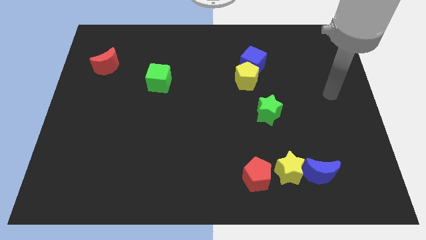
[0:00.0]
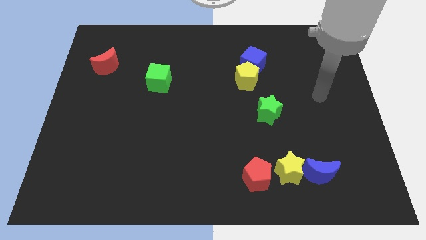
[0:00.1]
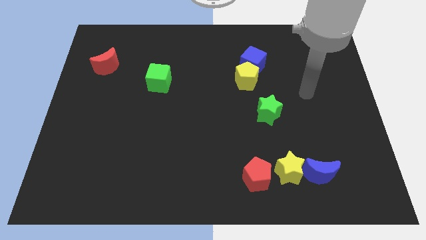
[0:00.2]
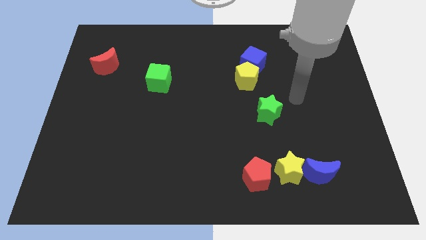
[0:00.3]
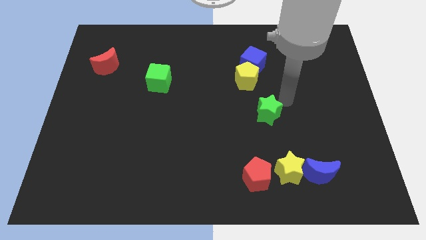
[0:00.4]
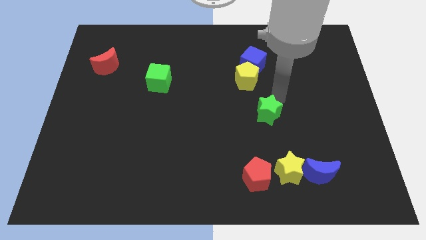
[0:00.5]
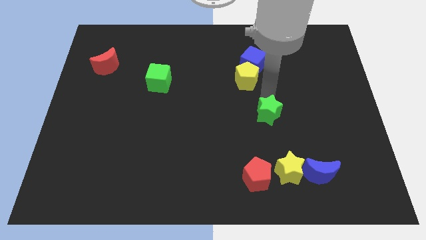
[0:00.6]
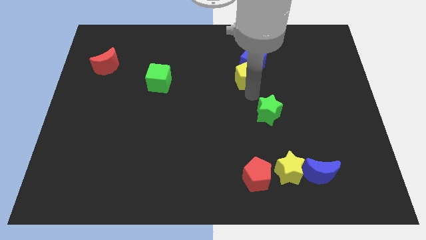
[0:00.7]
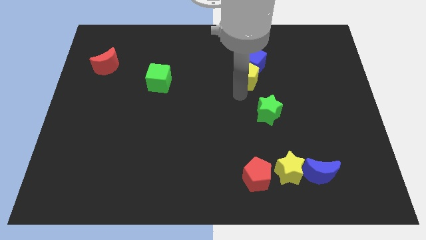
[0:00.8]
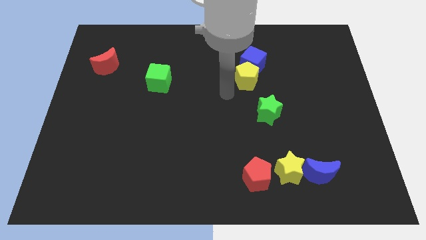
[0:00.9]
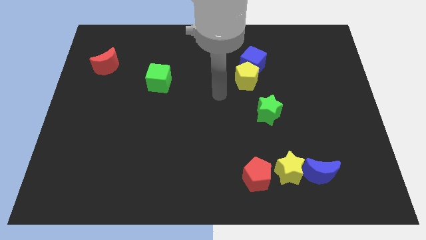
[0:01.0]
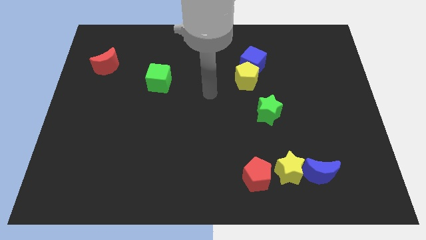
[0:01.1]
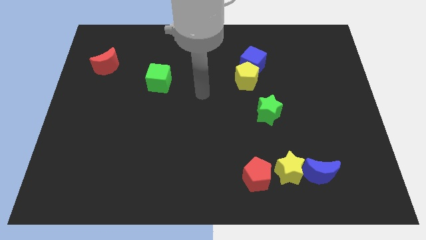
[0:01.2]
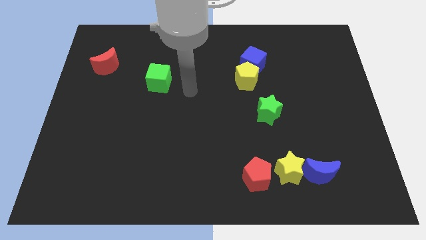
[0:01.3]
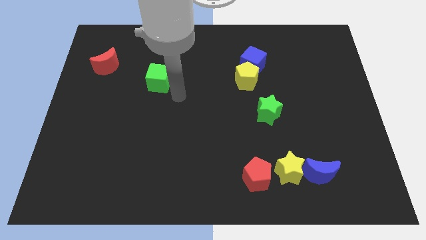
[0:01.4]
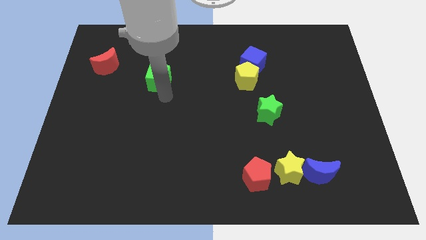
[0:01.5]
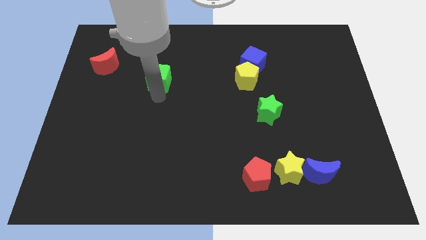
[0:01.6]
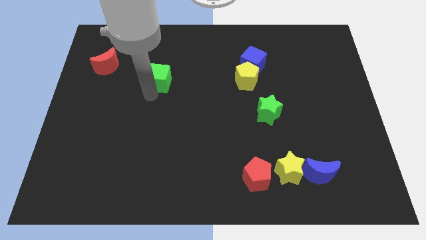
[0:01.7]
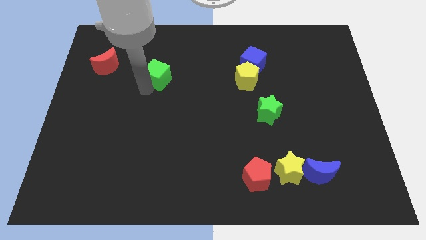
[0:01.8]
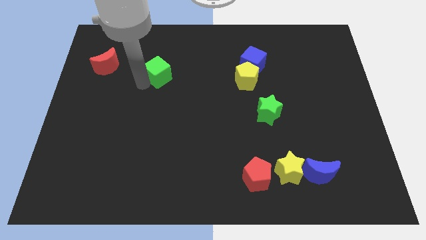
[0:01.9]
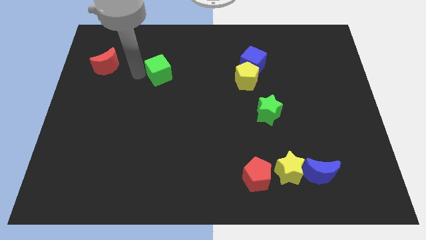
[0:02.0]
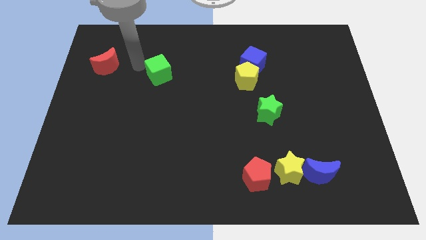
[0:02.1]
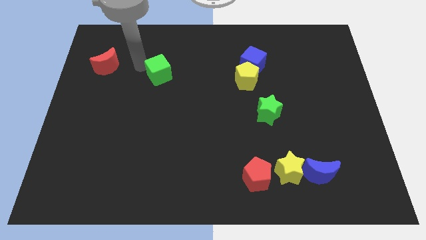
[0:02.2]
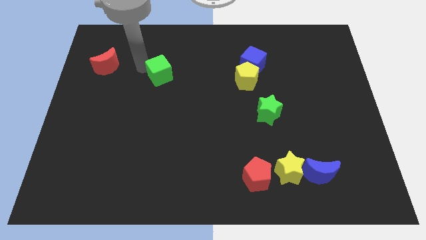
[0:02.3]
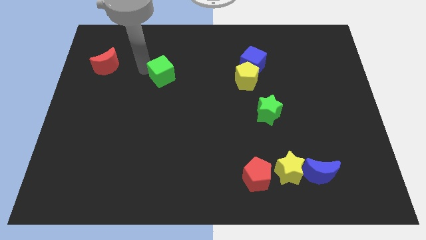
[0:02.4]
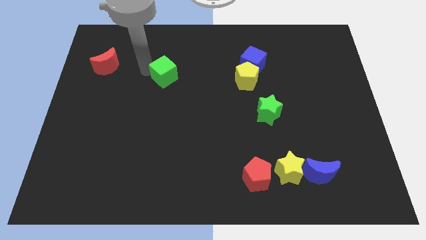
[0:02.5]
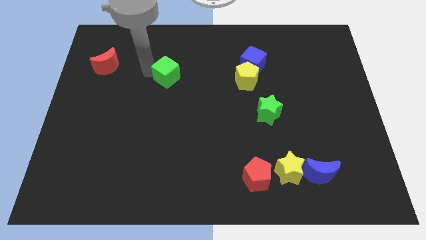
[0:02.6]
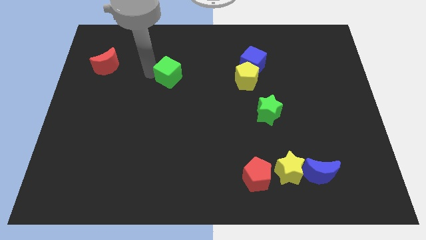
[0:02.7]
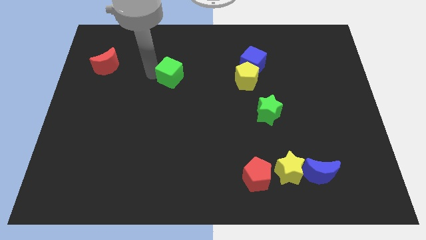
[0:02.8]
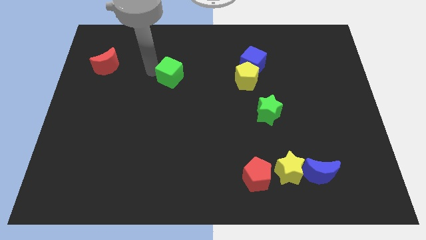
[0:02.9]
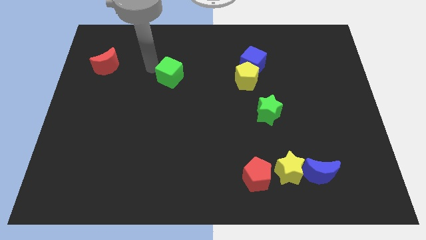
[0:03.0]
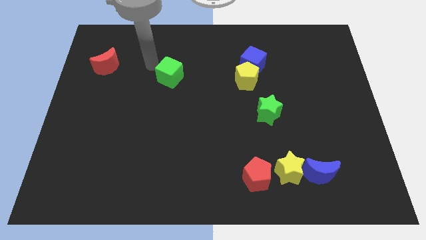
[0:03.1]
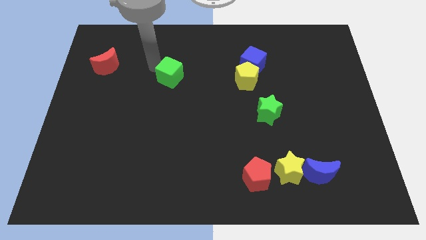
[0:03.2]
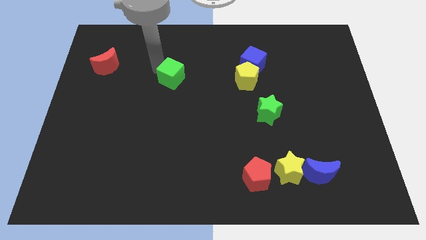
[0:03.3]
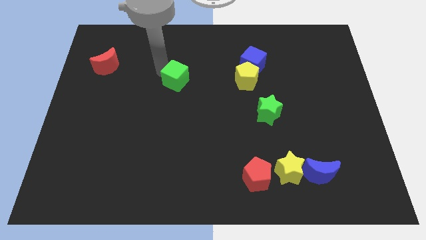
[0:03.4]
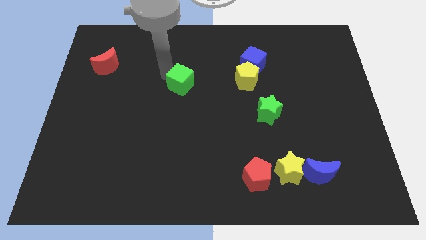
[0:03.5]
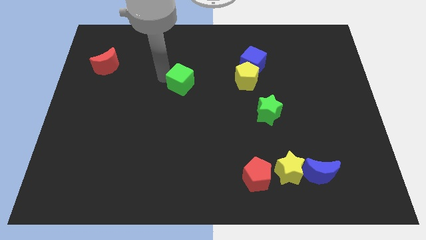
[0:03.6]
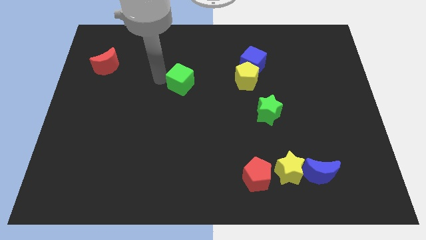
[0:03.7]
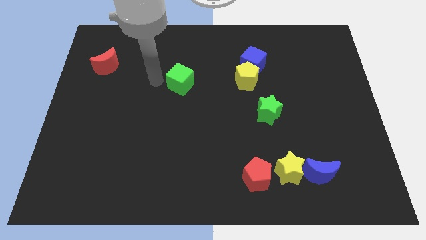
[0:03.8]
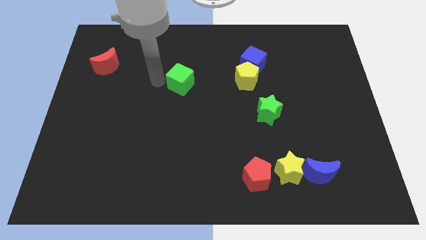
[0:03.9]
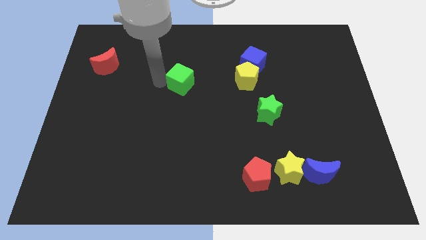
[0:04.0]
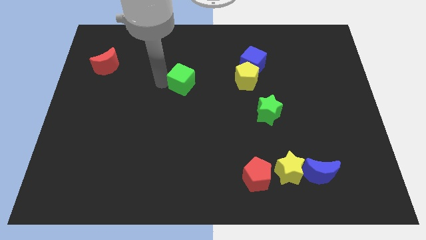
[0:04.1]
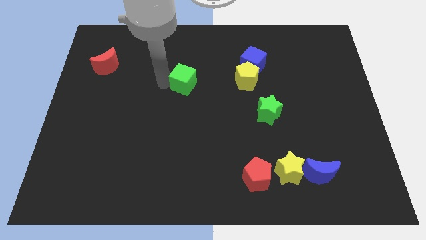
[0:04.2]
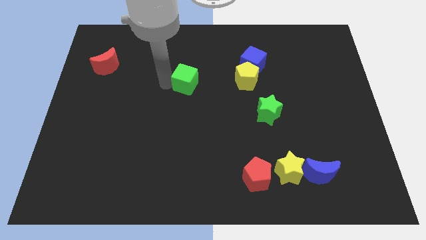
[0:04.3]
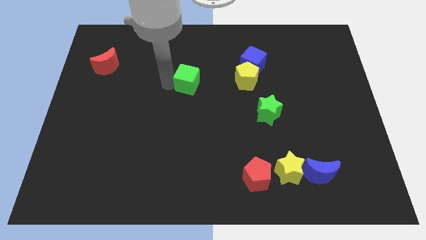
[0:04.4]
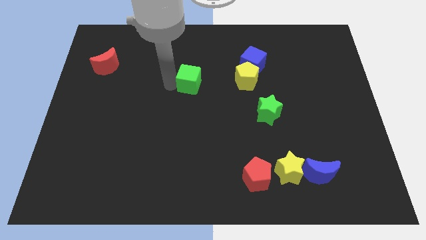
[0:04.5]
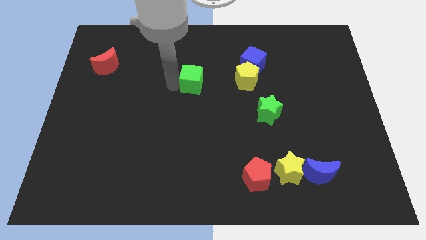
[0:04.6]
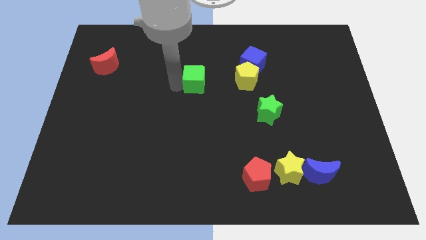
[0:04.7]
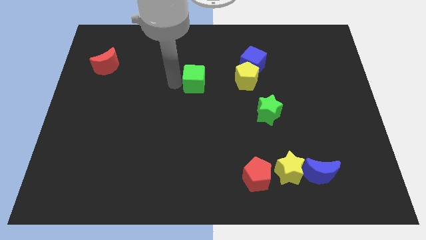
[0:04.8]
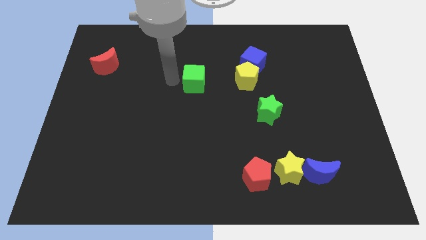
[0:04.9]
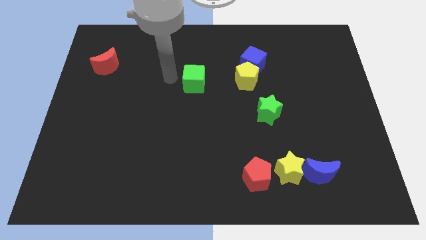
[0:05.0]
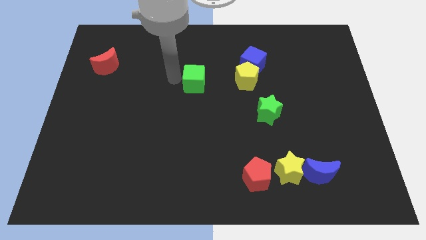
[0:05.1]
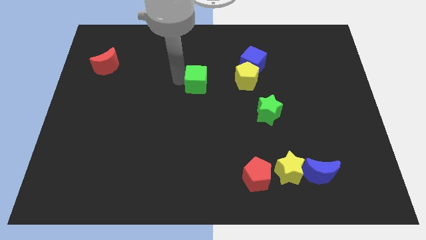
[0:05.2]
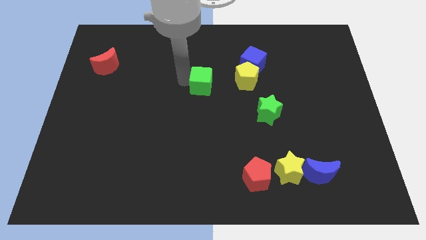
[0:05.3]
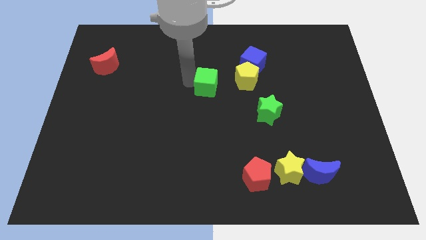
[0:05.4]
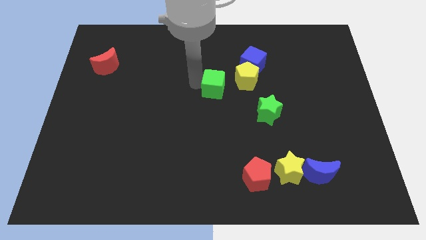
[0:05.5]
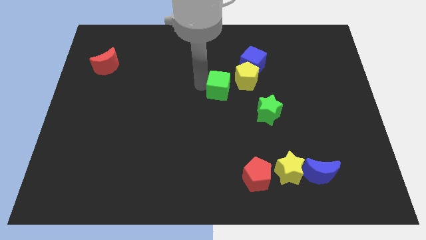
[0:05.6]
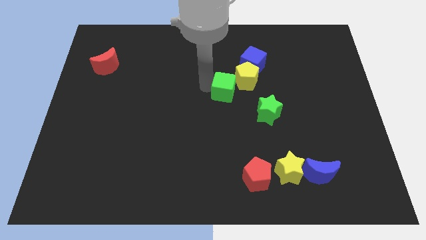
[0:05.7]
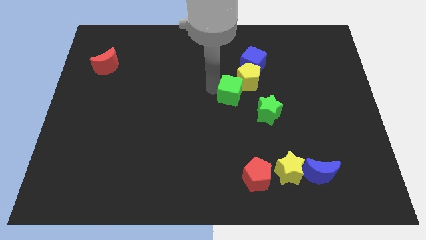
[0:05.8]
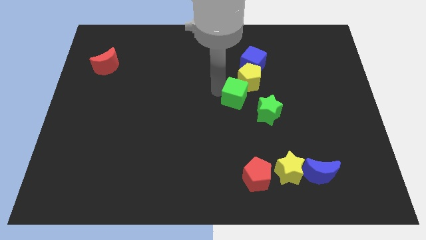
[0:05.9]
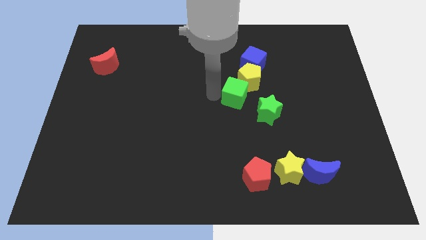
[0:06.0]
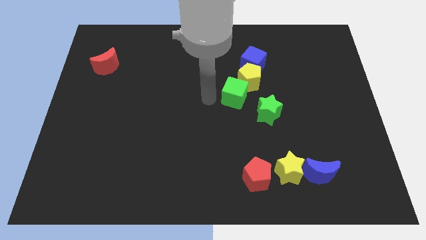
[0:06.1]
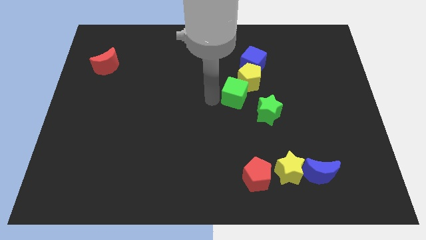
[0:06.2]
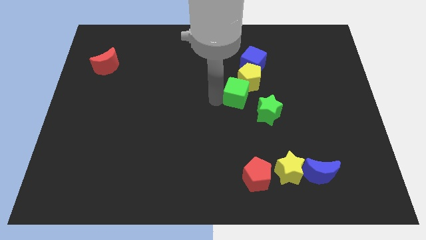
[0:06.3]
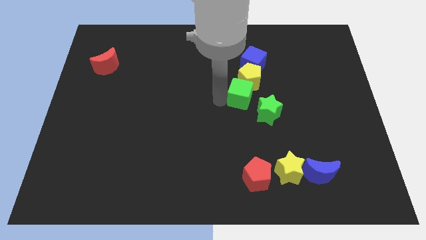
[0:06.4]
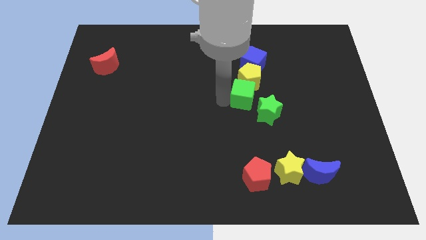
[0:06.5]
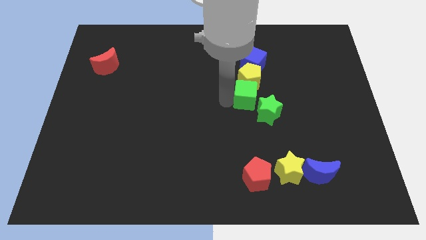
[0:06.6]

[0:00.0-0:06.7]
move the green cube to the right

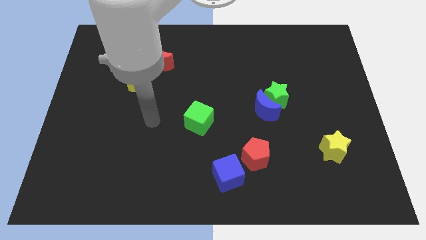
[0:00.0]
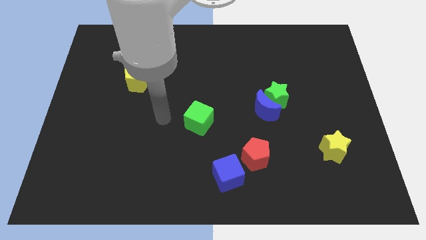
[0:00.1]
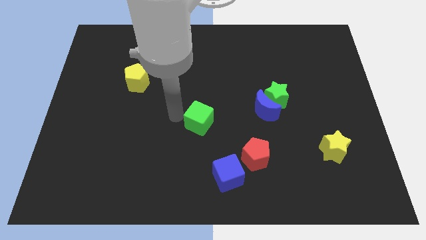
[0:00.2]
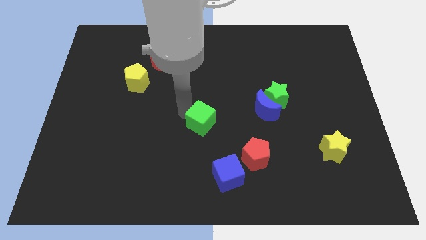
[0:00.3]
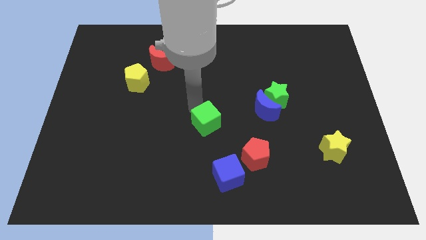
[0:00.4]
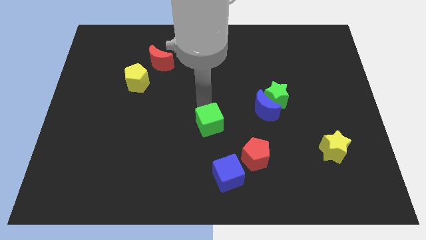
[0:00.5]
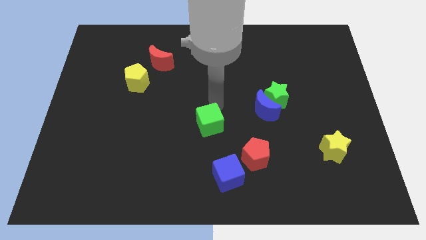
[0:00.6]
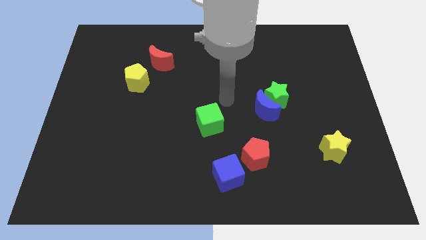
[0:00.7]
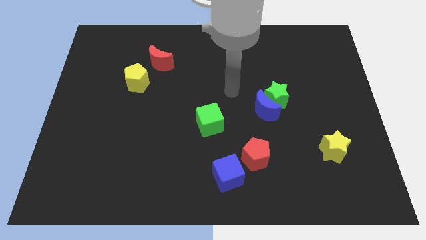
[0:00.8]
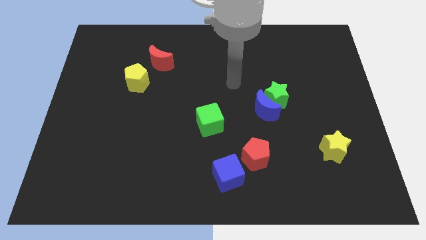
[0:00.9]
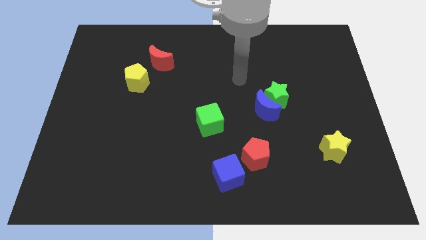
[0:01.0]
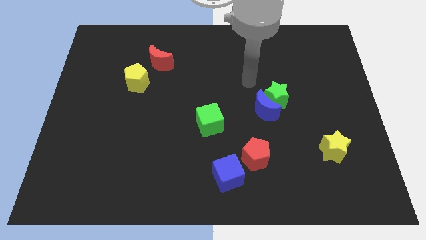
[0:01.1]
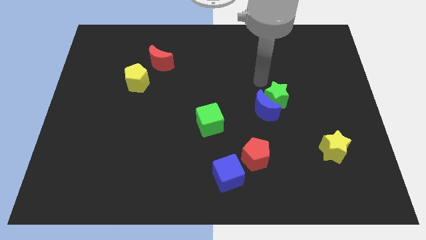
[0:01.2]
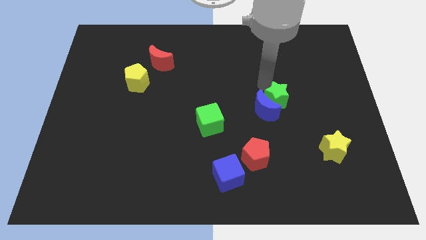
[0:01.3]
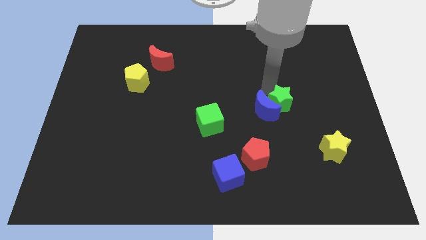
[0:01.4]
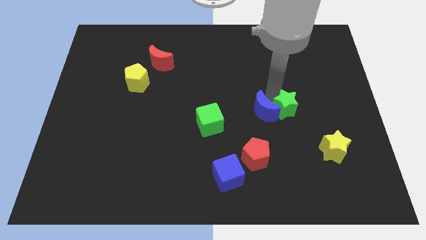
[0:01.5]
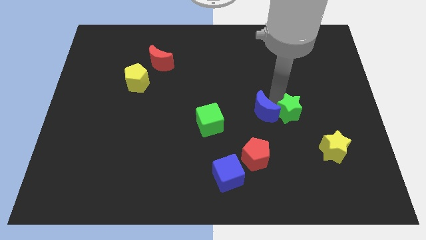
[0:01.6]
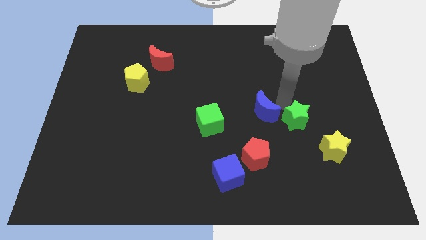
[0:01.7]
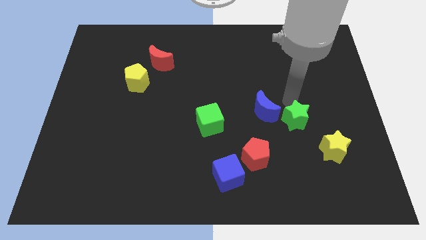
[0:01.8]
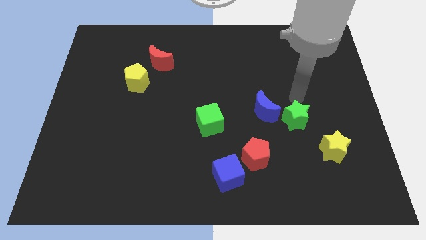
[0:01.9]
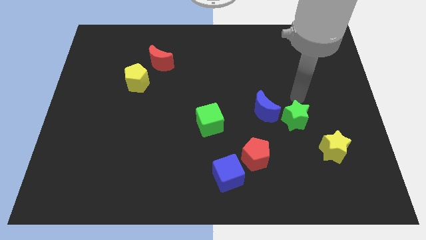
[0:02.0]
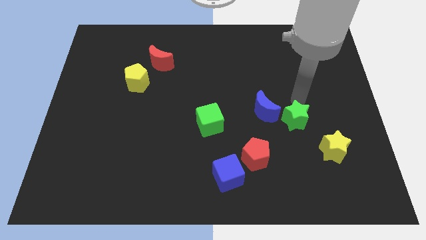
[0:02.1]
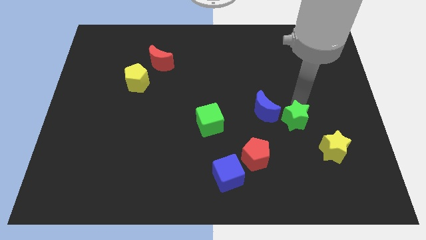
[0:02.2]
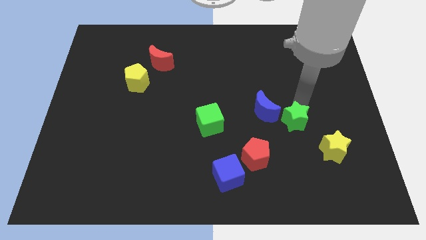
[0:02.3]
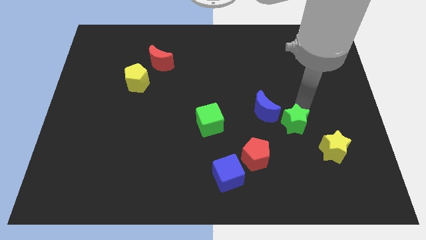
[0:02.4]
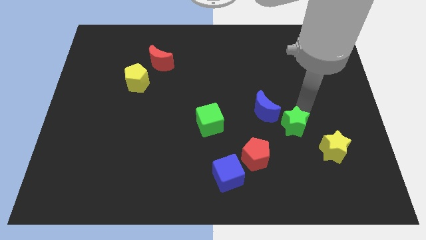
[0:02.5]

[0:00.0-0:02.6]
move the green star slightly down
